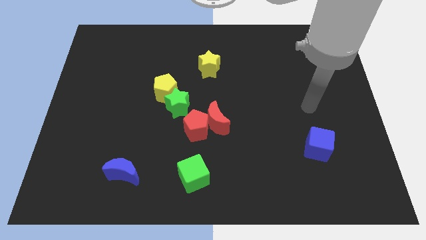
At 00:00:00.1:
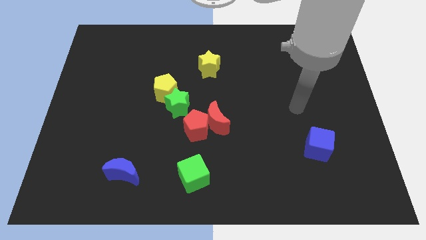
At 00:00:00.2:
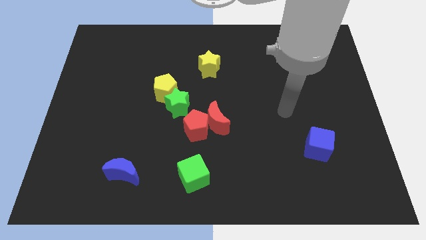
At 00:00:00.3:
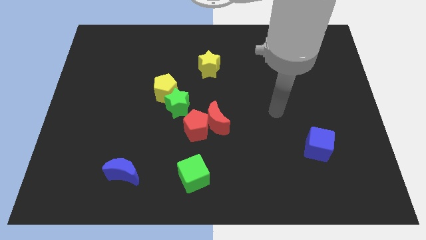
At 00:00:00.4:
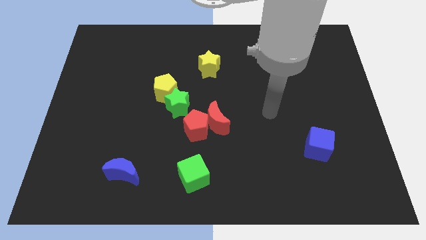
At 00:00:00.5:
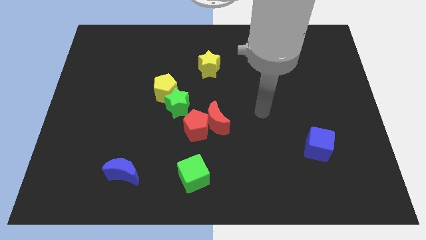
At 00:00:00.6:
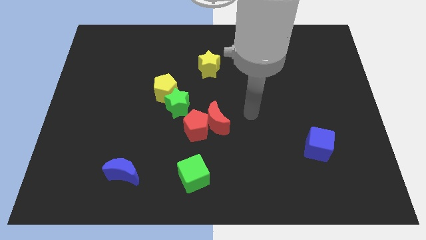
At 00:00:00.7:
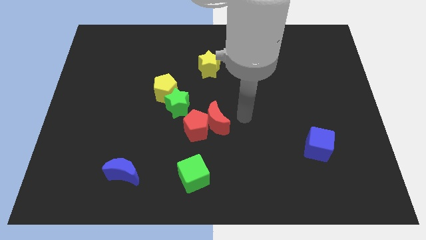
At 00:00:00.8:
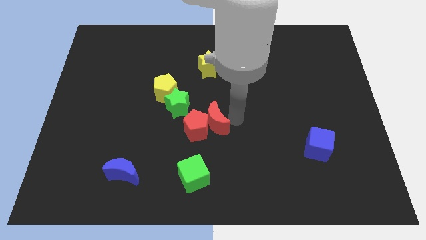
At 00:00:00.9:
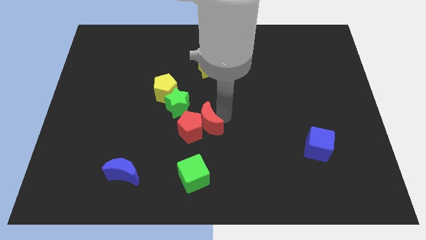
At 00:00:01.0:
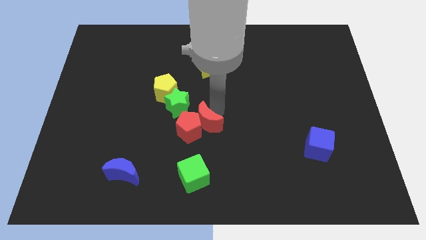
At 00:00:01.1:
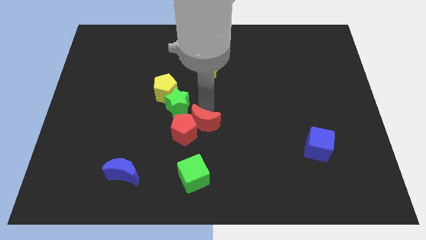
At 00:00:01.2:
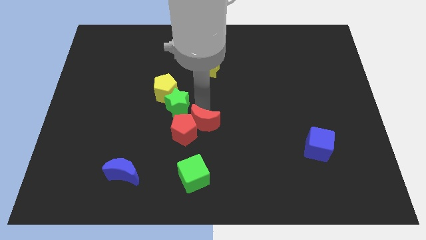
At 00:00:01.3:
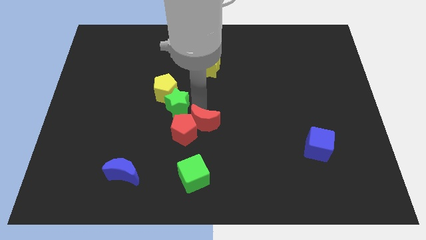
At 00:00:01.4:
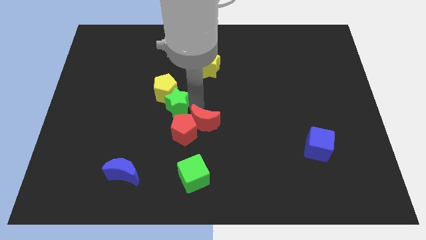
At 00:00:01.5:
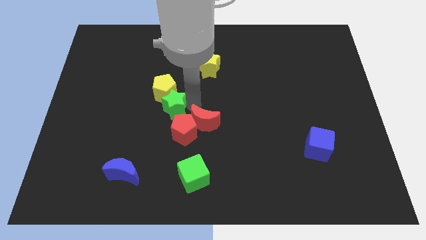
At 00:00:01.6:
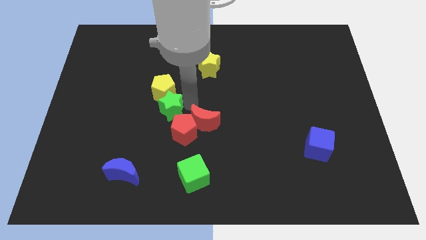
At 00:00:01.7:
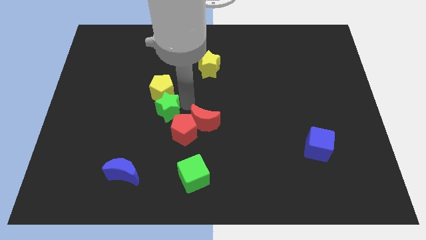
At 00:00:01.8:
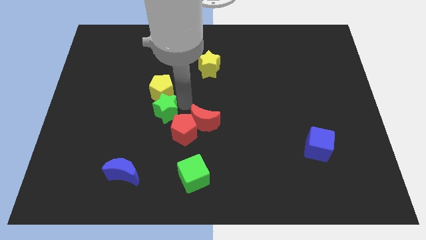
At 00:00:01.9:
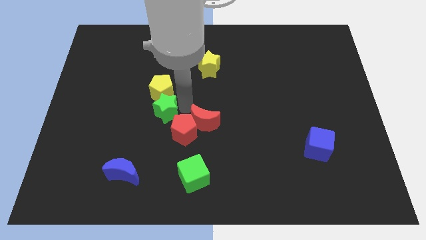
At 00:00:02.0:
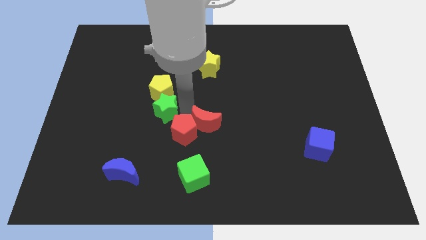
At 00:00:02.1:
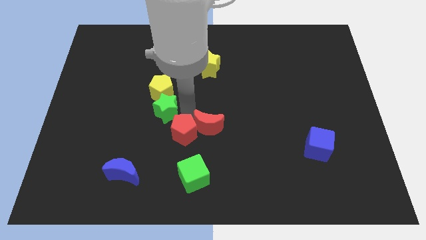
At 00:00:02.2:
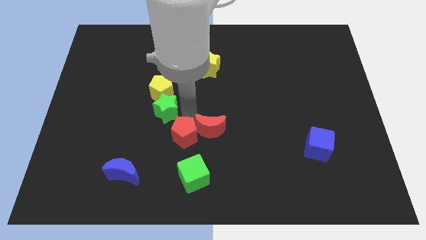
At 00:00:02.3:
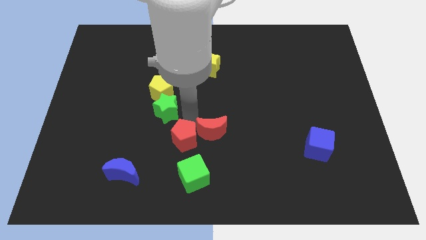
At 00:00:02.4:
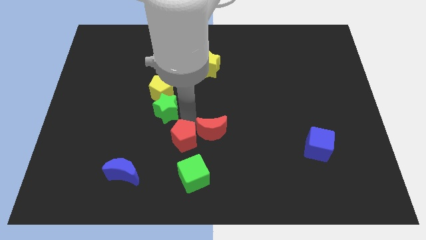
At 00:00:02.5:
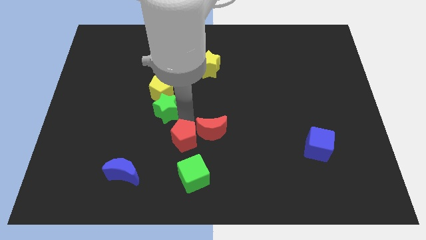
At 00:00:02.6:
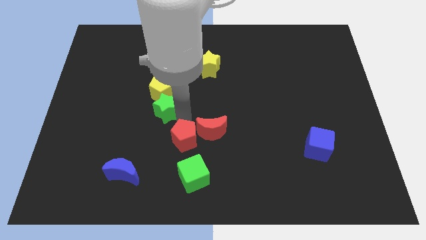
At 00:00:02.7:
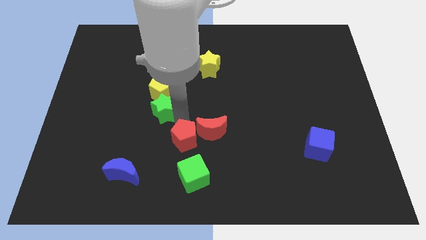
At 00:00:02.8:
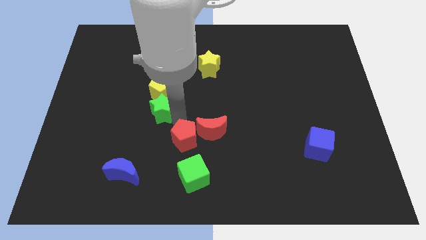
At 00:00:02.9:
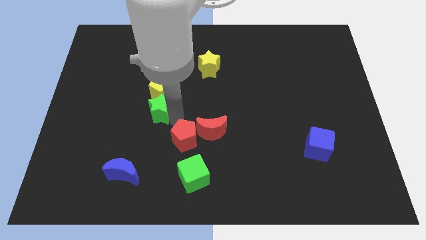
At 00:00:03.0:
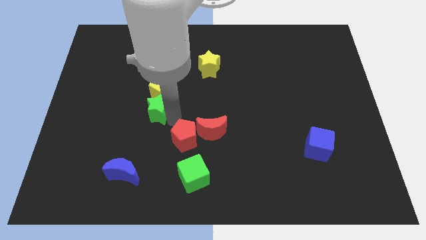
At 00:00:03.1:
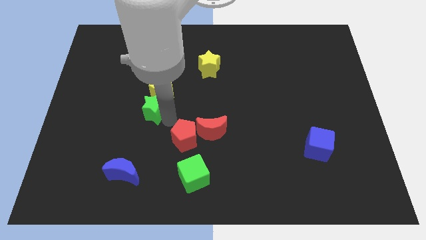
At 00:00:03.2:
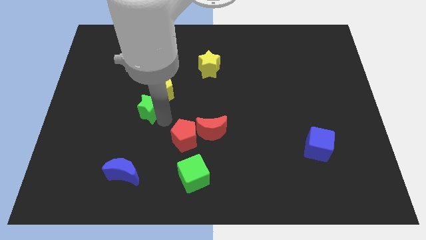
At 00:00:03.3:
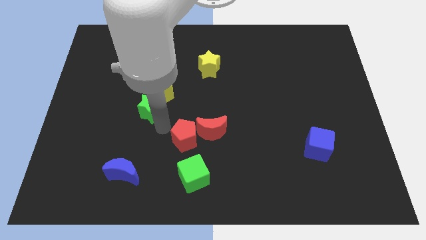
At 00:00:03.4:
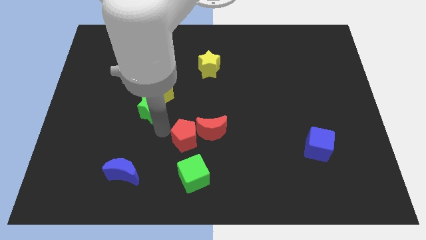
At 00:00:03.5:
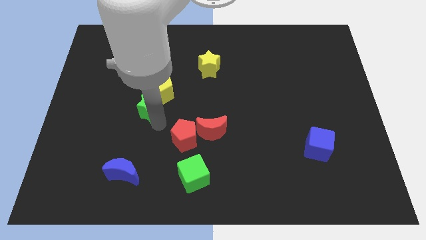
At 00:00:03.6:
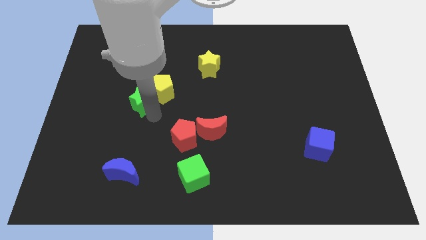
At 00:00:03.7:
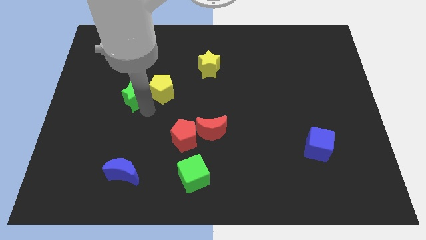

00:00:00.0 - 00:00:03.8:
move the green star somewhat upwards and left diagonally

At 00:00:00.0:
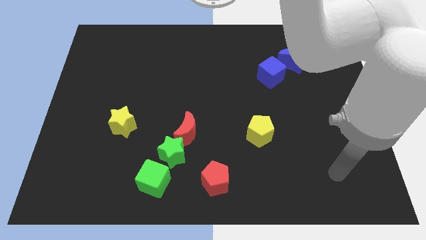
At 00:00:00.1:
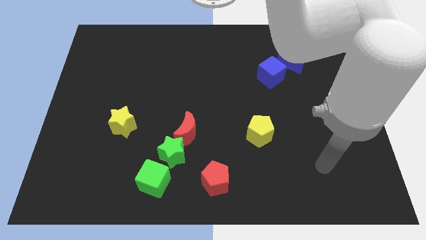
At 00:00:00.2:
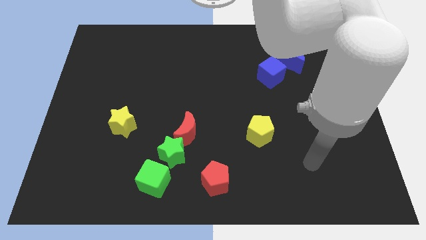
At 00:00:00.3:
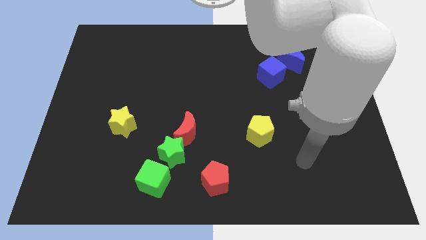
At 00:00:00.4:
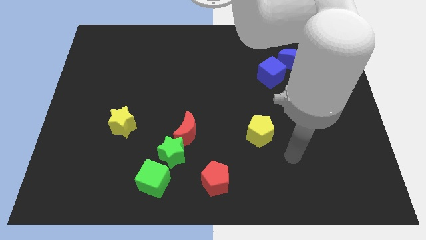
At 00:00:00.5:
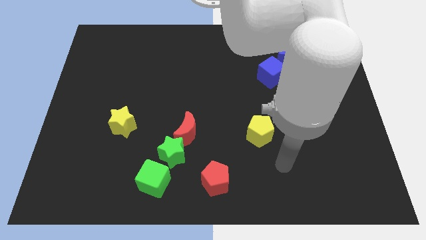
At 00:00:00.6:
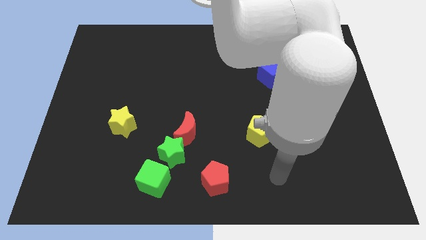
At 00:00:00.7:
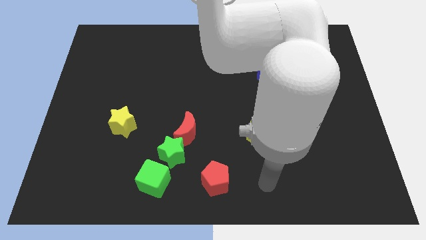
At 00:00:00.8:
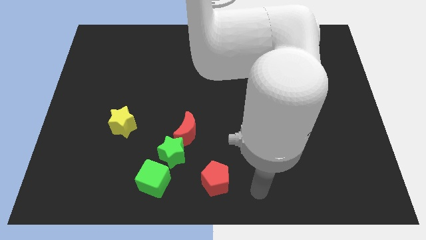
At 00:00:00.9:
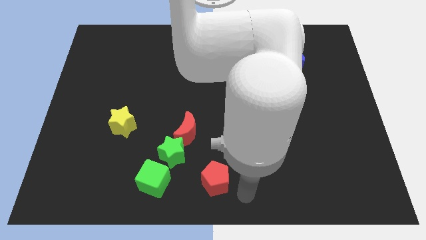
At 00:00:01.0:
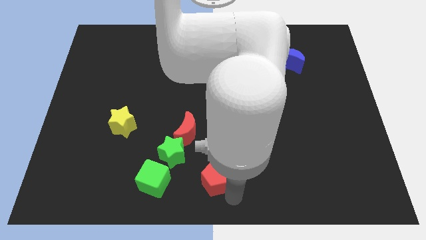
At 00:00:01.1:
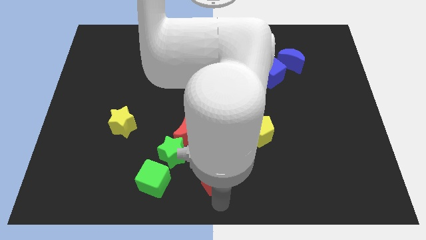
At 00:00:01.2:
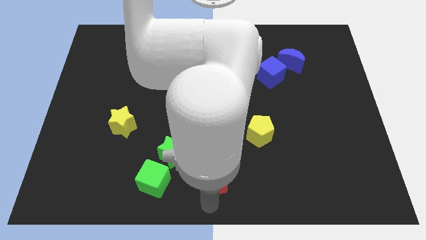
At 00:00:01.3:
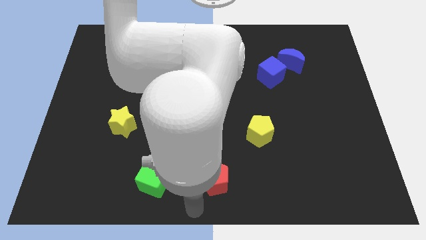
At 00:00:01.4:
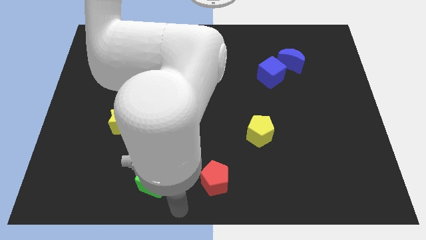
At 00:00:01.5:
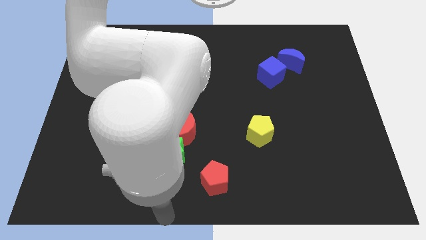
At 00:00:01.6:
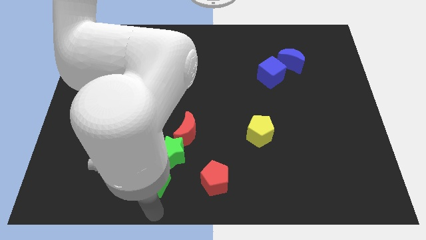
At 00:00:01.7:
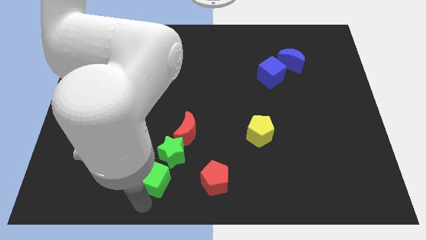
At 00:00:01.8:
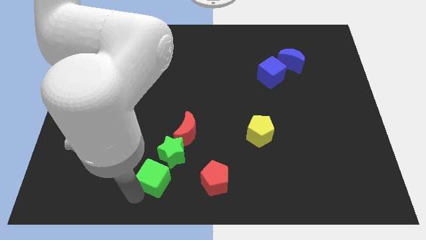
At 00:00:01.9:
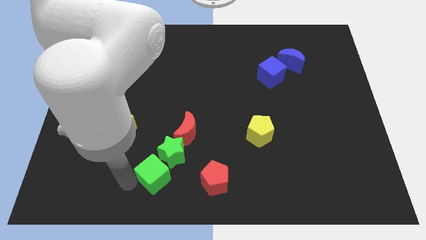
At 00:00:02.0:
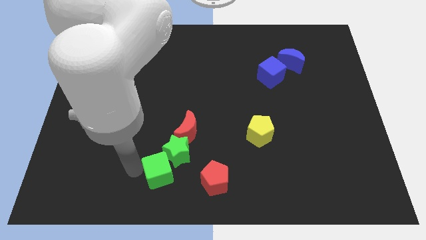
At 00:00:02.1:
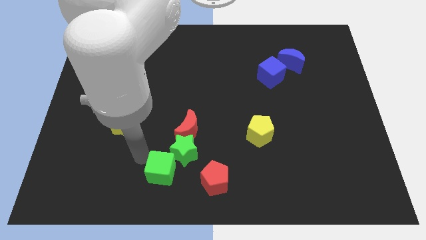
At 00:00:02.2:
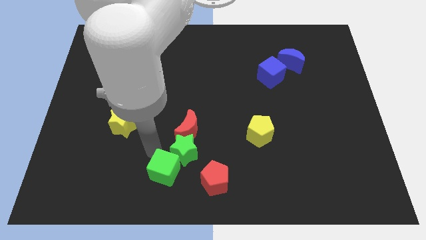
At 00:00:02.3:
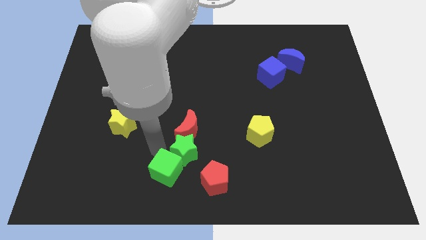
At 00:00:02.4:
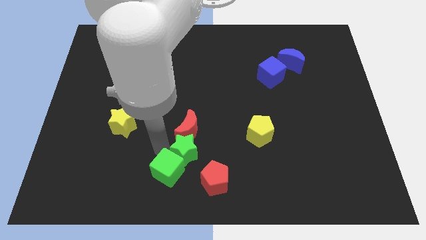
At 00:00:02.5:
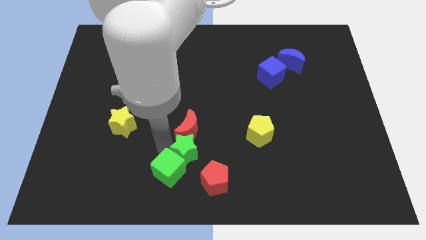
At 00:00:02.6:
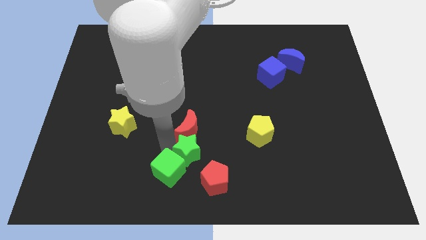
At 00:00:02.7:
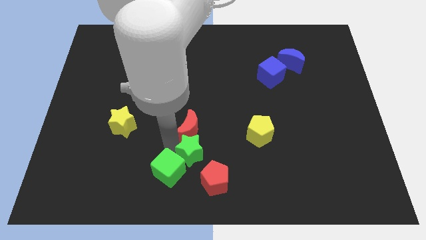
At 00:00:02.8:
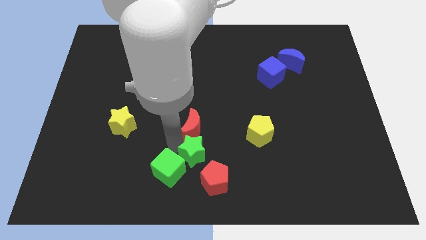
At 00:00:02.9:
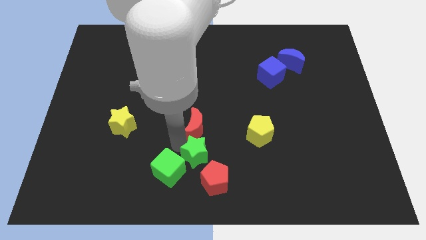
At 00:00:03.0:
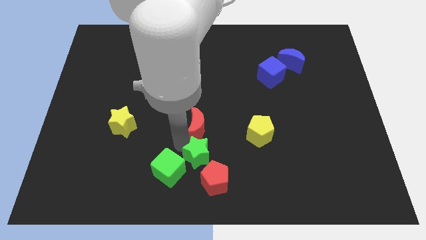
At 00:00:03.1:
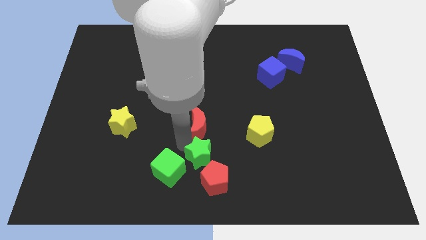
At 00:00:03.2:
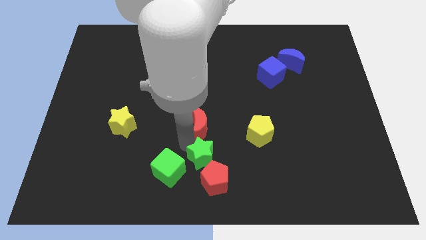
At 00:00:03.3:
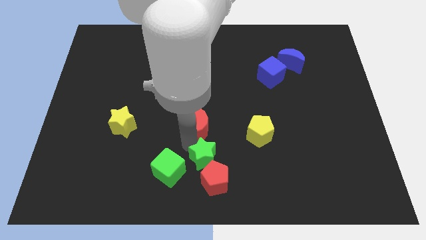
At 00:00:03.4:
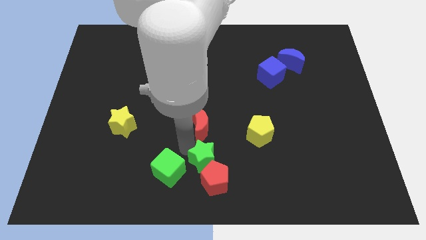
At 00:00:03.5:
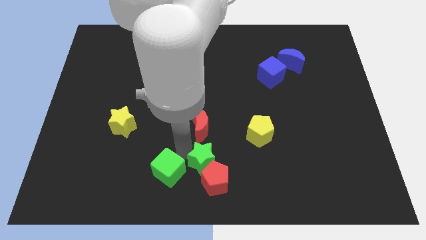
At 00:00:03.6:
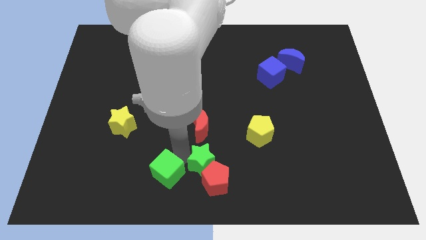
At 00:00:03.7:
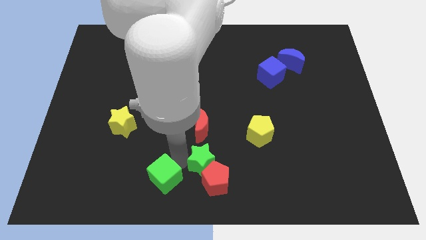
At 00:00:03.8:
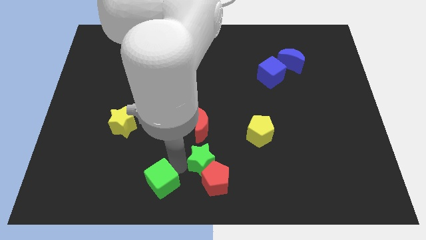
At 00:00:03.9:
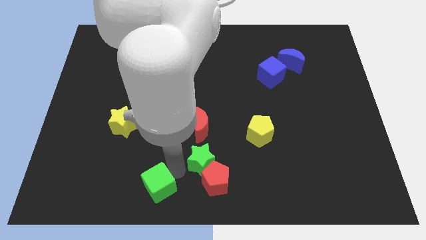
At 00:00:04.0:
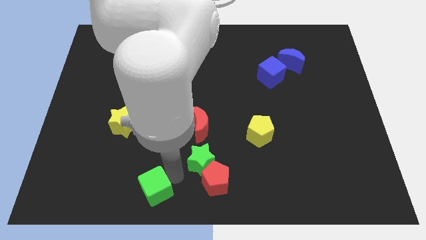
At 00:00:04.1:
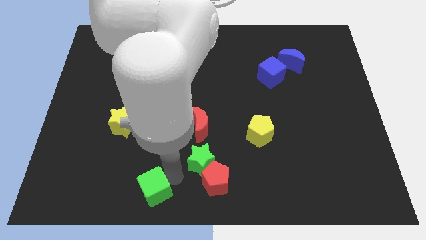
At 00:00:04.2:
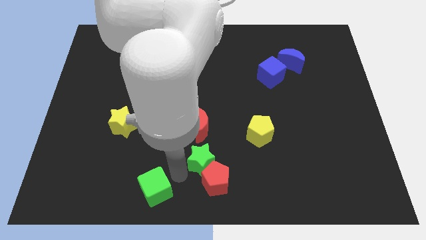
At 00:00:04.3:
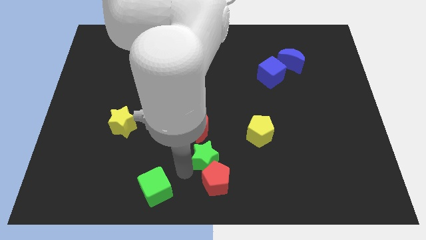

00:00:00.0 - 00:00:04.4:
move the green star to the right somewhat
